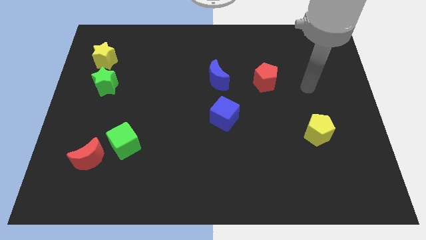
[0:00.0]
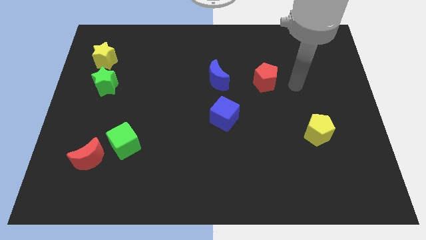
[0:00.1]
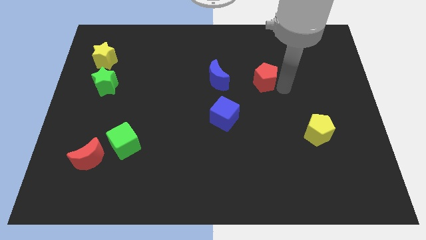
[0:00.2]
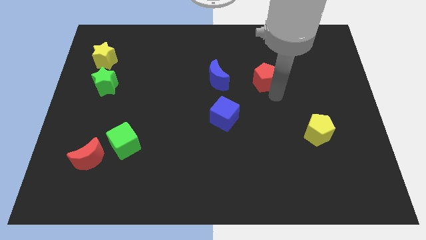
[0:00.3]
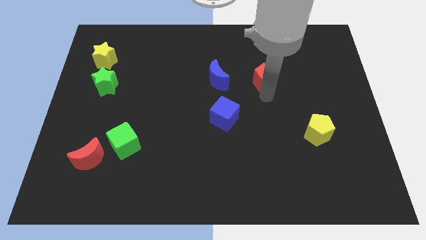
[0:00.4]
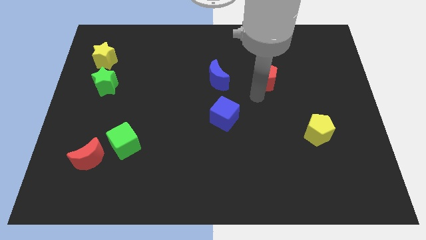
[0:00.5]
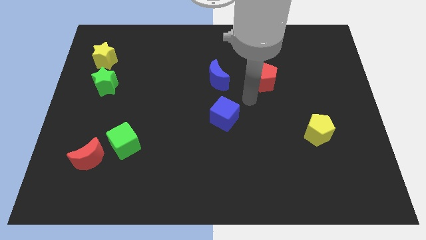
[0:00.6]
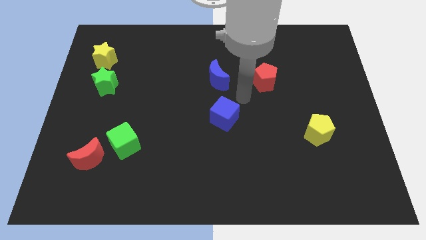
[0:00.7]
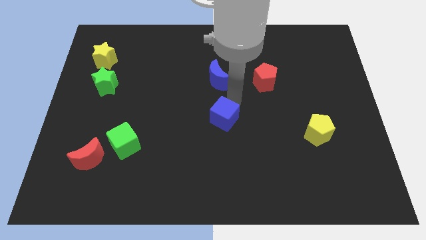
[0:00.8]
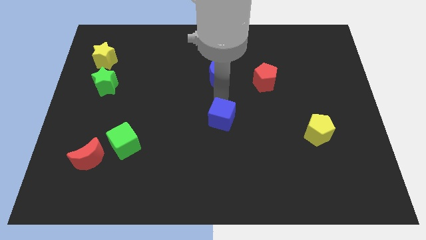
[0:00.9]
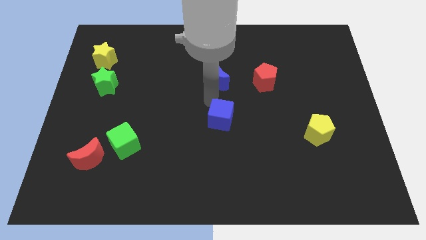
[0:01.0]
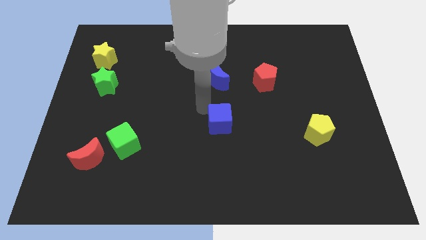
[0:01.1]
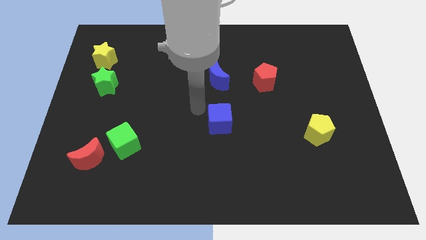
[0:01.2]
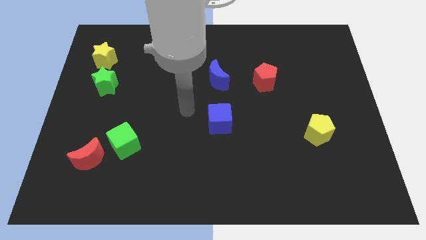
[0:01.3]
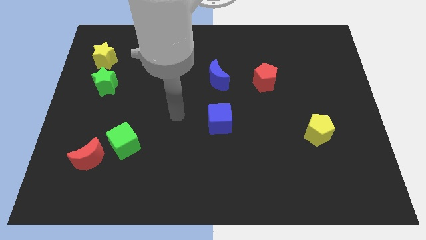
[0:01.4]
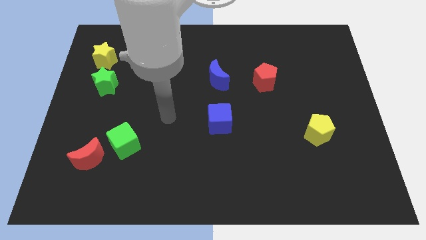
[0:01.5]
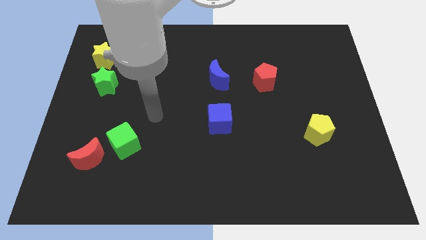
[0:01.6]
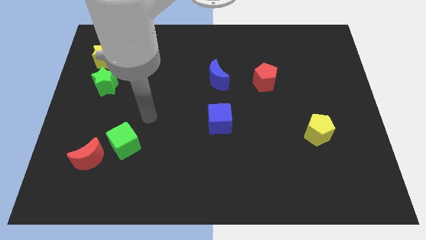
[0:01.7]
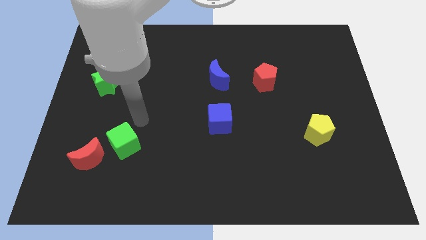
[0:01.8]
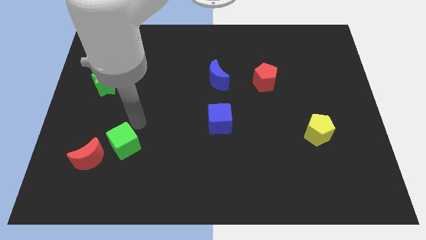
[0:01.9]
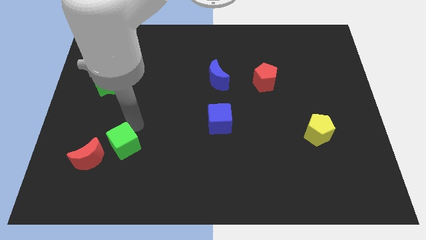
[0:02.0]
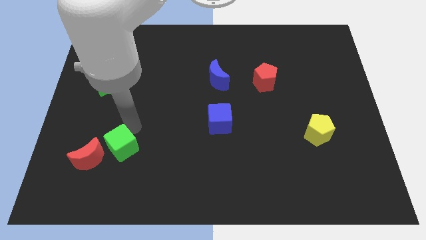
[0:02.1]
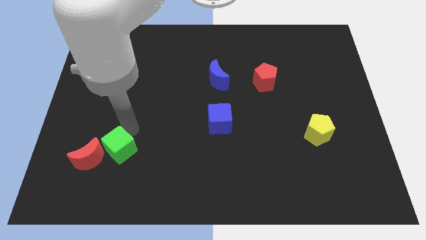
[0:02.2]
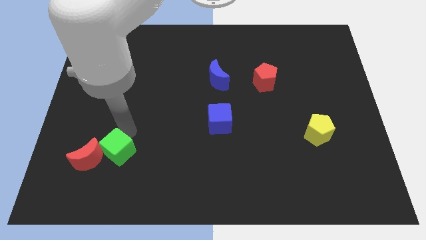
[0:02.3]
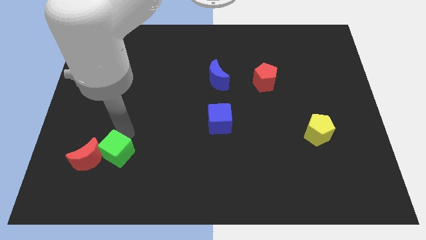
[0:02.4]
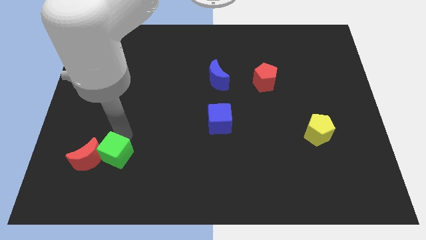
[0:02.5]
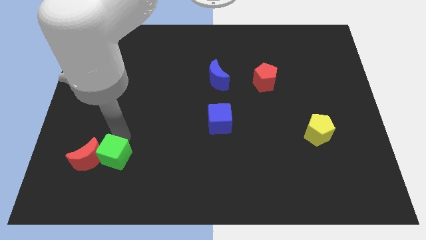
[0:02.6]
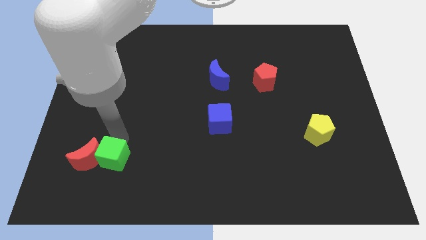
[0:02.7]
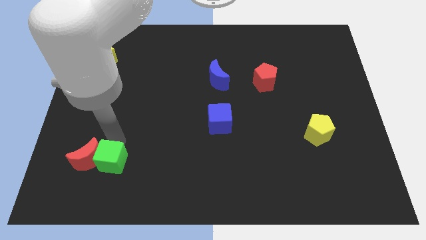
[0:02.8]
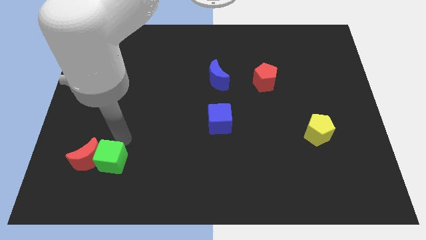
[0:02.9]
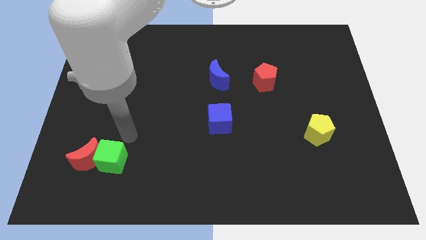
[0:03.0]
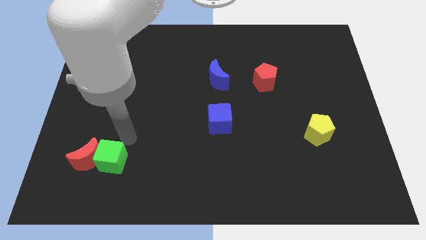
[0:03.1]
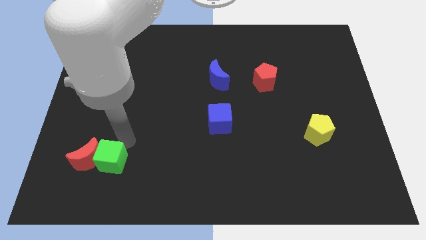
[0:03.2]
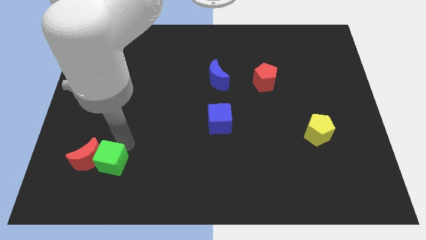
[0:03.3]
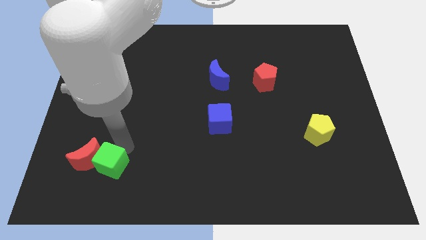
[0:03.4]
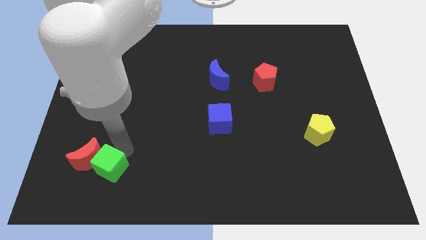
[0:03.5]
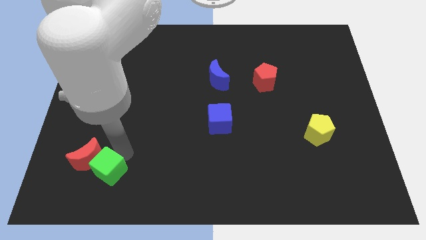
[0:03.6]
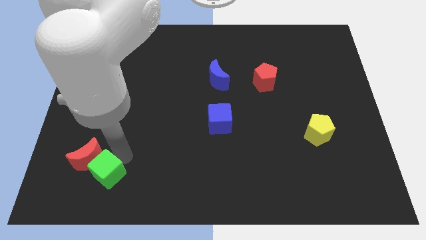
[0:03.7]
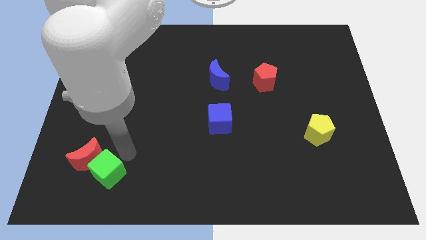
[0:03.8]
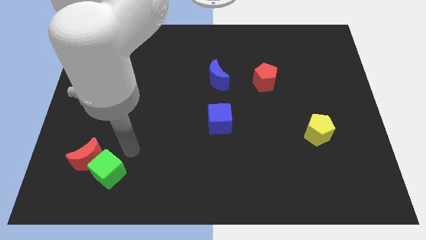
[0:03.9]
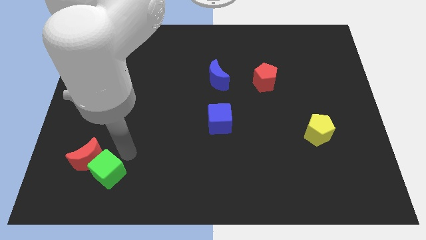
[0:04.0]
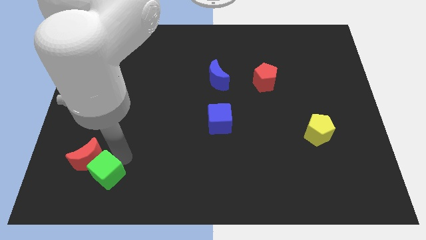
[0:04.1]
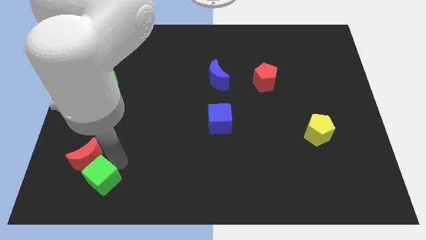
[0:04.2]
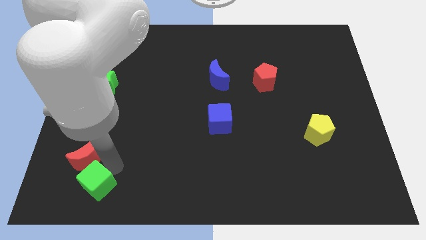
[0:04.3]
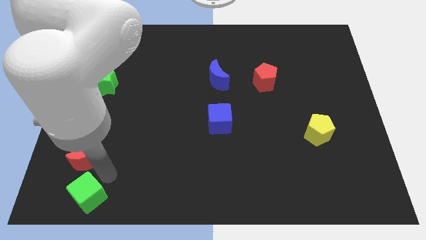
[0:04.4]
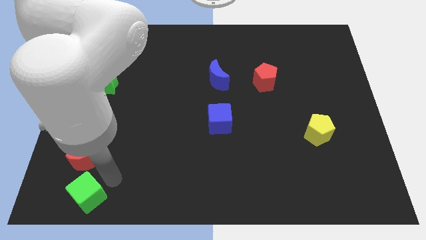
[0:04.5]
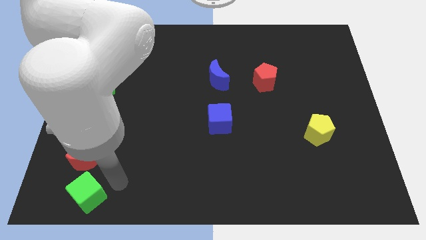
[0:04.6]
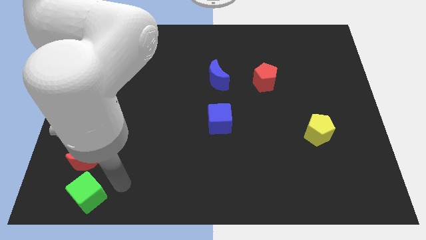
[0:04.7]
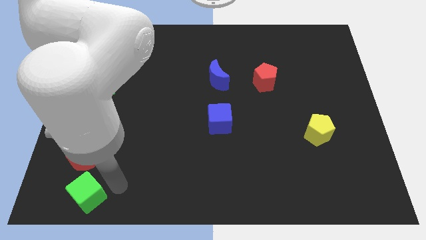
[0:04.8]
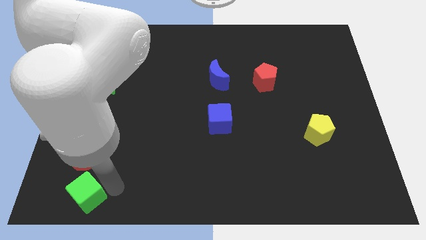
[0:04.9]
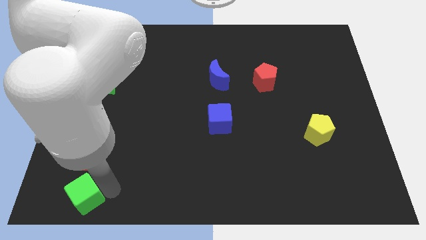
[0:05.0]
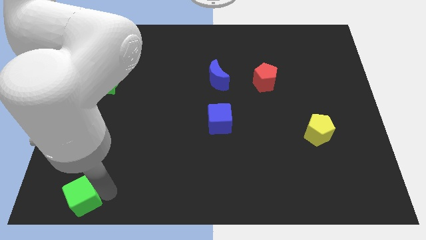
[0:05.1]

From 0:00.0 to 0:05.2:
put the green cube to the lower left corner

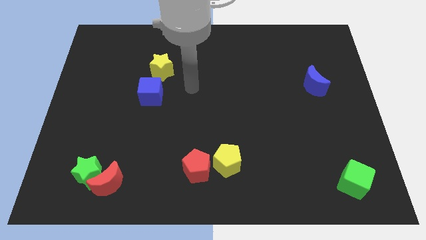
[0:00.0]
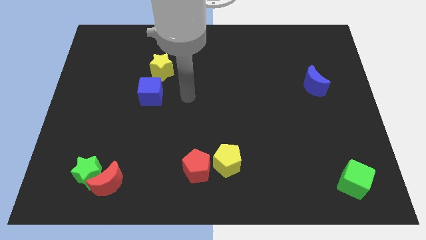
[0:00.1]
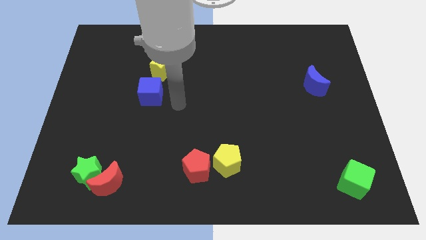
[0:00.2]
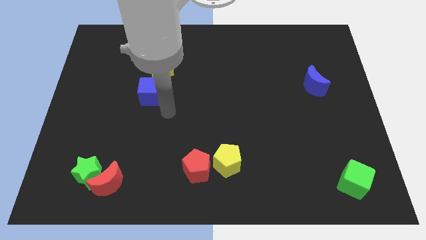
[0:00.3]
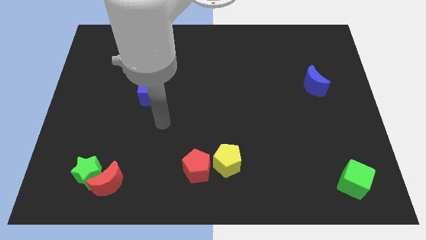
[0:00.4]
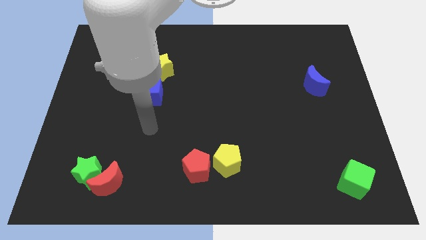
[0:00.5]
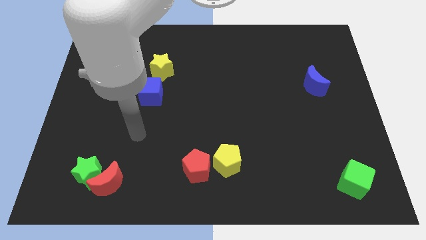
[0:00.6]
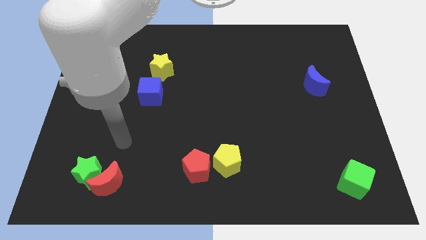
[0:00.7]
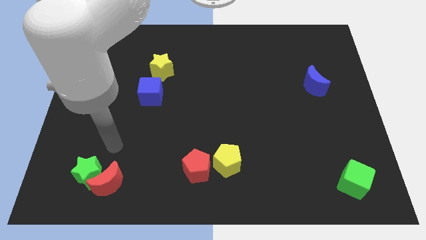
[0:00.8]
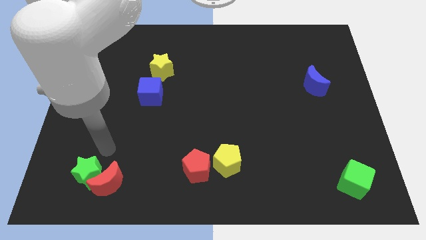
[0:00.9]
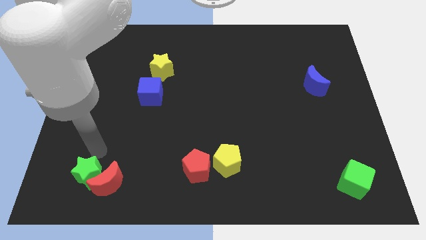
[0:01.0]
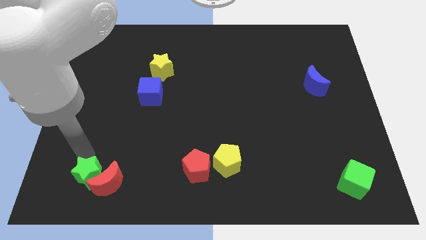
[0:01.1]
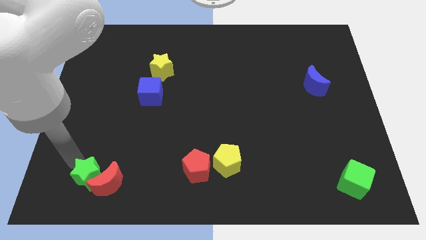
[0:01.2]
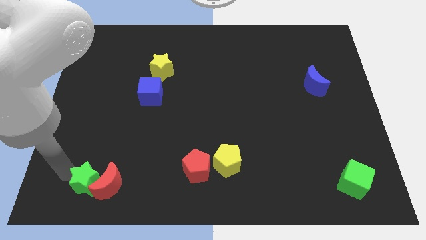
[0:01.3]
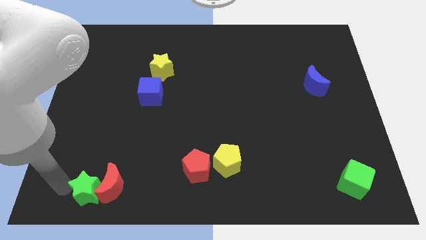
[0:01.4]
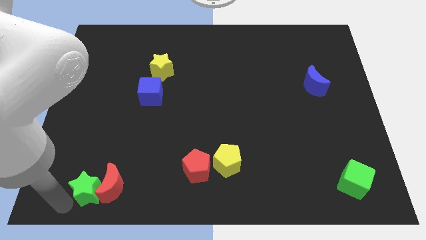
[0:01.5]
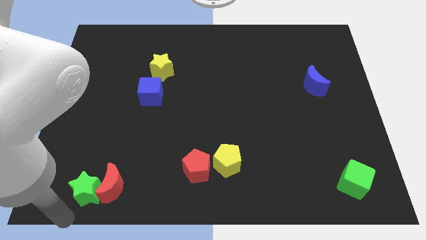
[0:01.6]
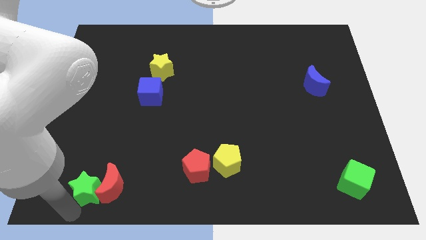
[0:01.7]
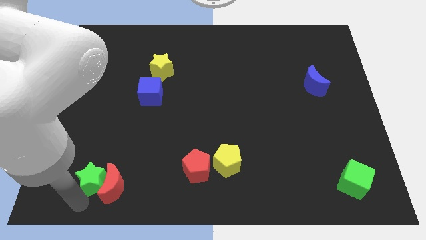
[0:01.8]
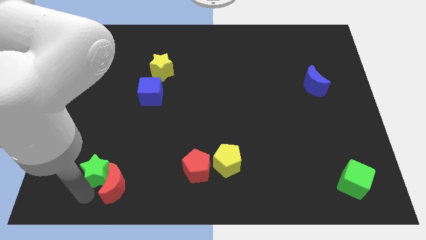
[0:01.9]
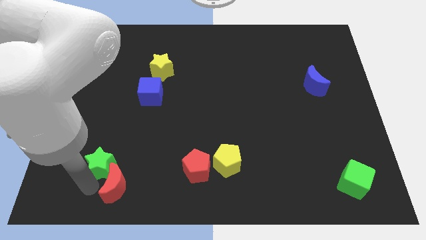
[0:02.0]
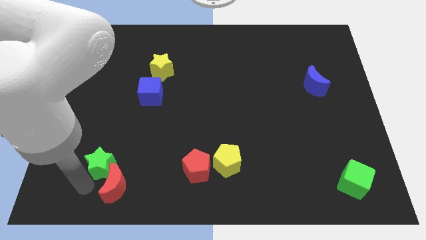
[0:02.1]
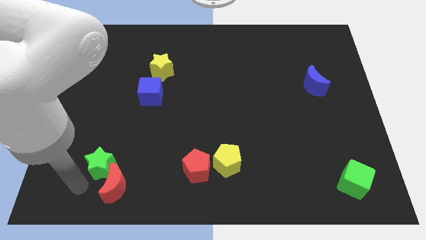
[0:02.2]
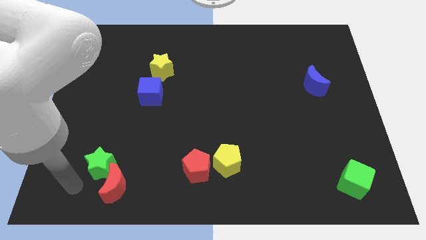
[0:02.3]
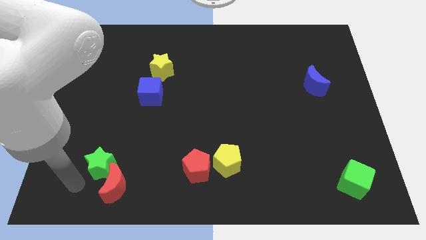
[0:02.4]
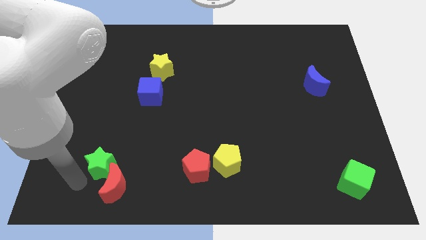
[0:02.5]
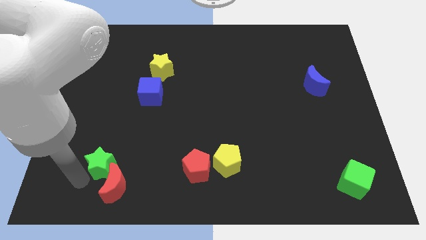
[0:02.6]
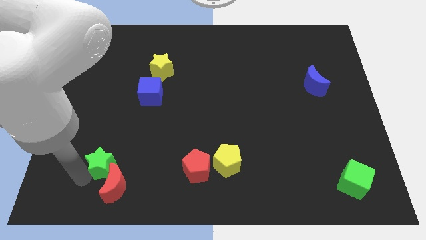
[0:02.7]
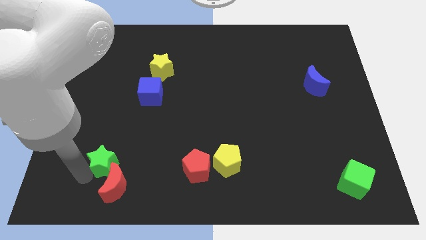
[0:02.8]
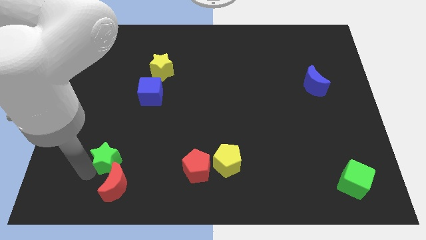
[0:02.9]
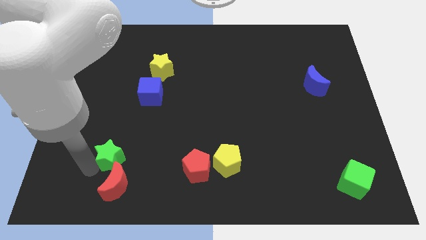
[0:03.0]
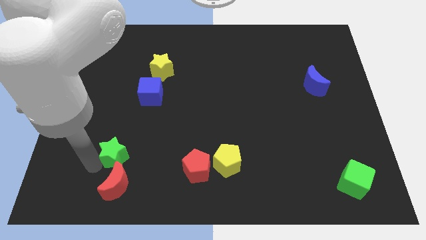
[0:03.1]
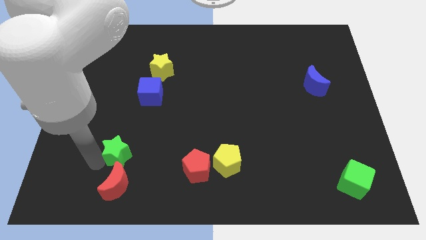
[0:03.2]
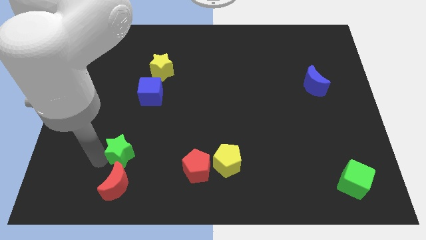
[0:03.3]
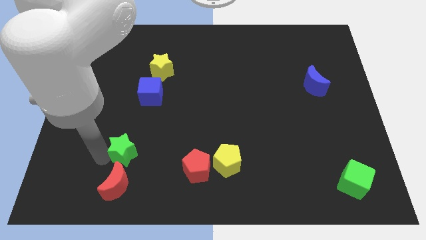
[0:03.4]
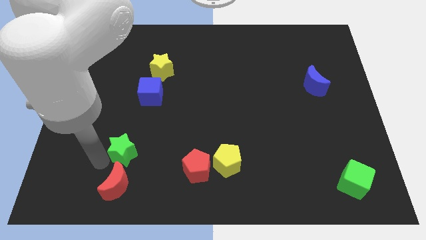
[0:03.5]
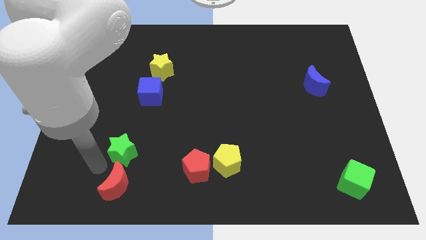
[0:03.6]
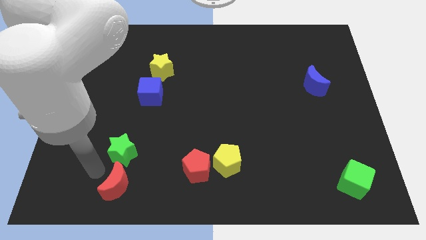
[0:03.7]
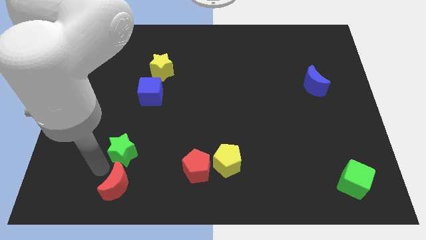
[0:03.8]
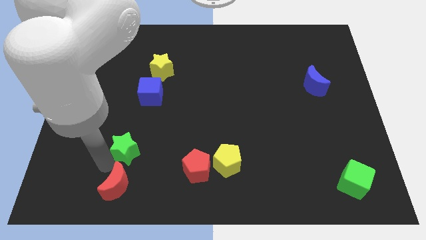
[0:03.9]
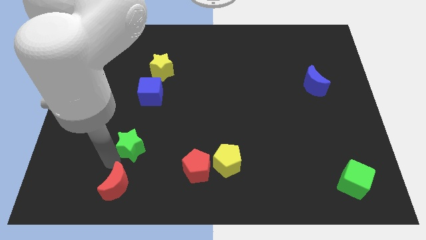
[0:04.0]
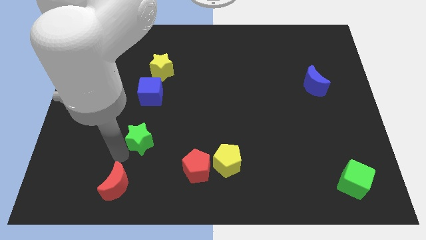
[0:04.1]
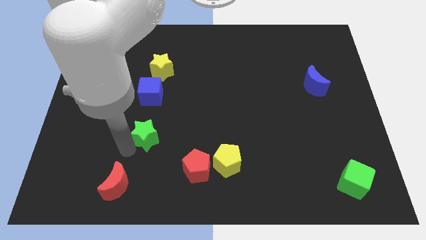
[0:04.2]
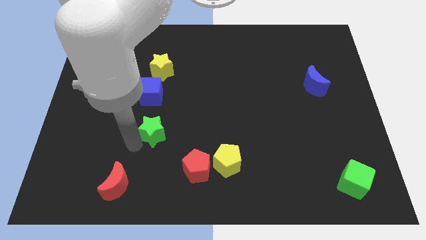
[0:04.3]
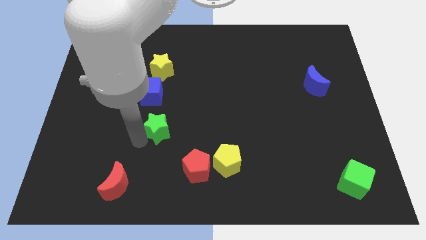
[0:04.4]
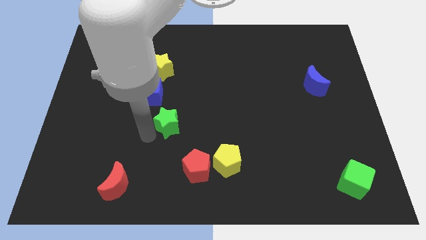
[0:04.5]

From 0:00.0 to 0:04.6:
put the green star to the middle of the board
